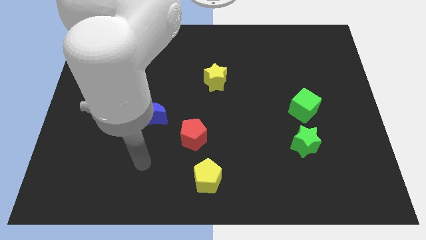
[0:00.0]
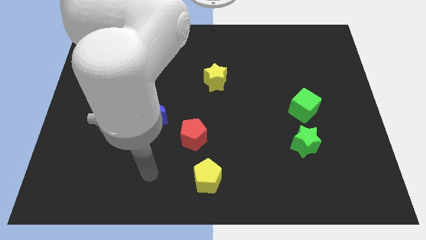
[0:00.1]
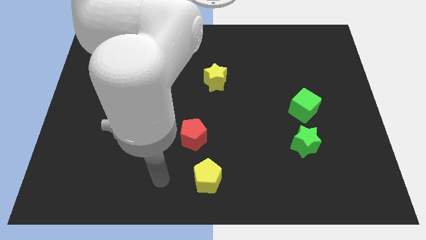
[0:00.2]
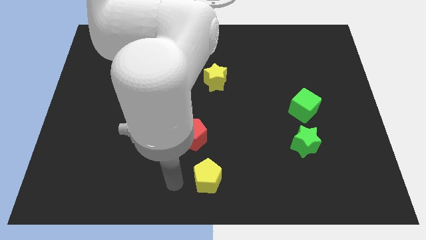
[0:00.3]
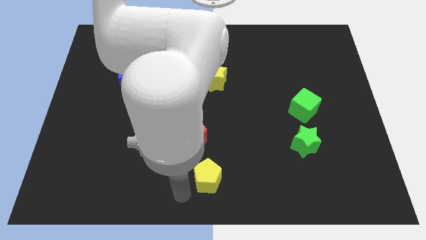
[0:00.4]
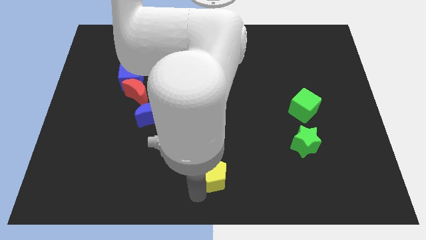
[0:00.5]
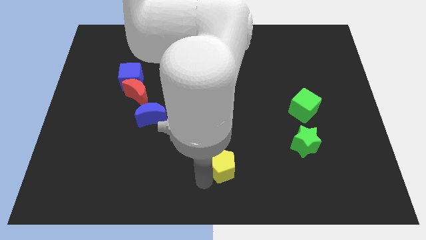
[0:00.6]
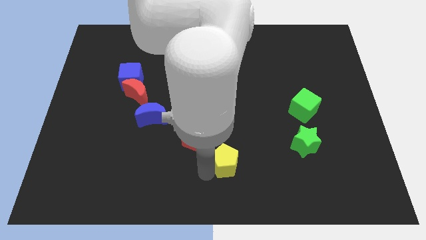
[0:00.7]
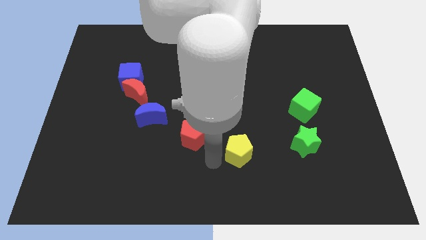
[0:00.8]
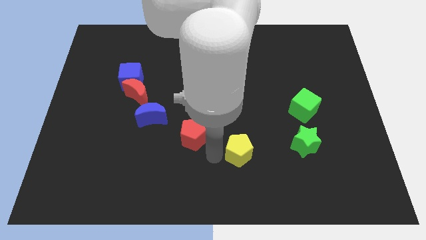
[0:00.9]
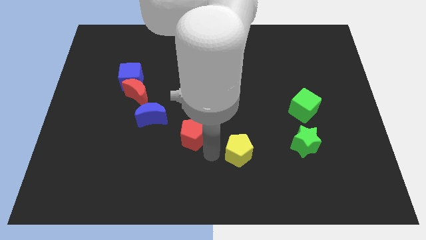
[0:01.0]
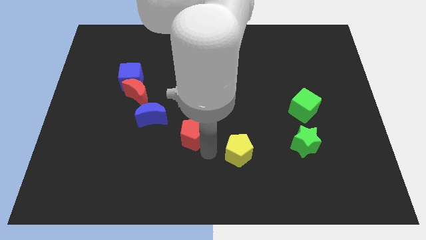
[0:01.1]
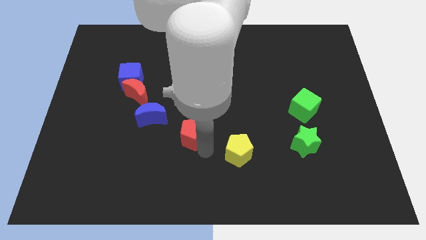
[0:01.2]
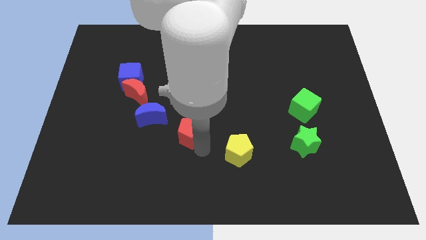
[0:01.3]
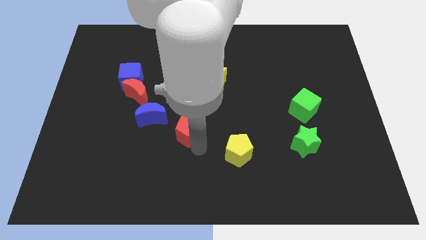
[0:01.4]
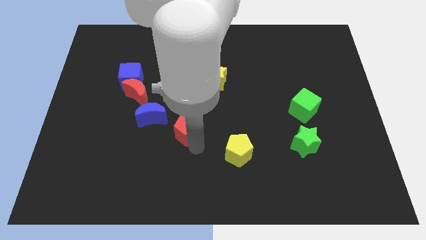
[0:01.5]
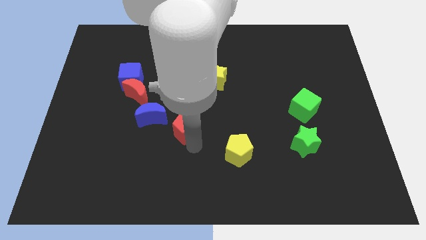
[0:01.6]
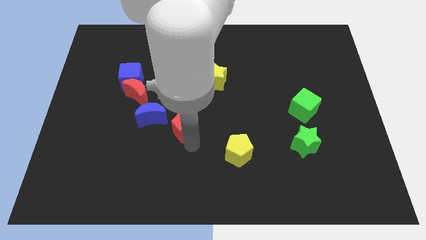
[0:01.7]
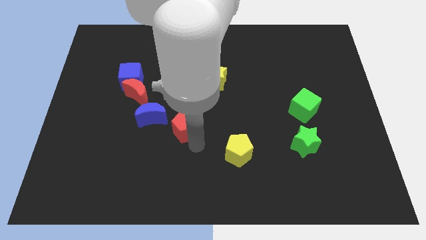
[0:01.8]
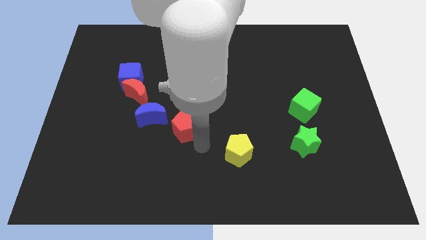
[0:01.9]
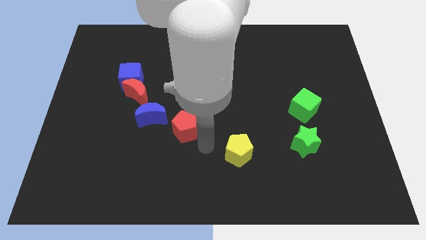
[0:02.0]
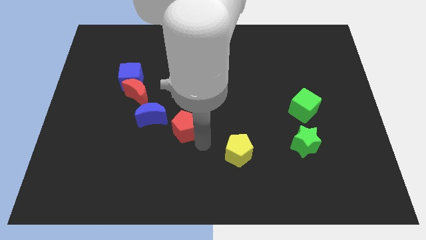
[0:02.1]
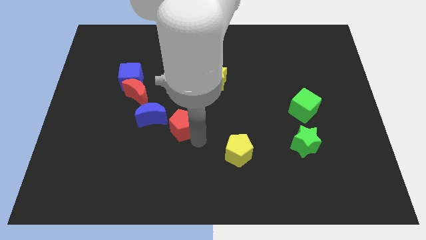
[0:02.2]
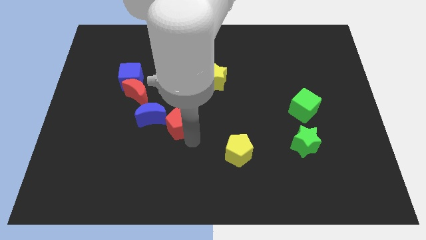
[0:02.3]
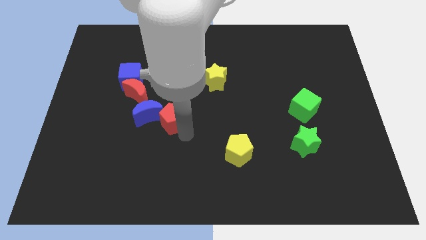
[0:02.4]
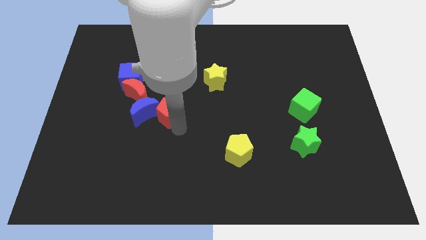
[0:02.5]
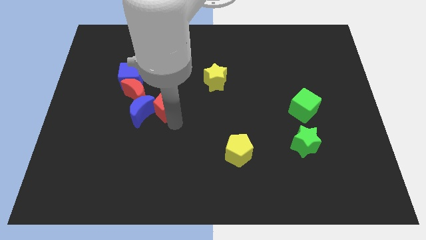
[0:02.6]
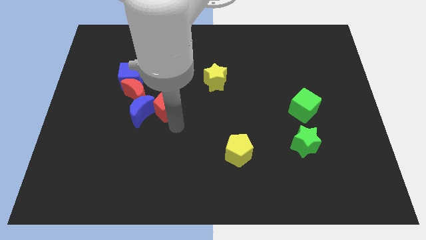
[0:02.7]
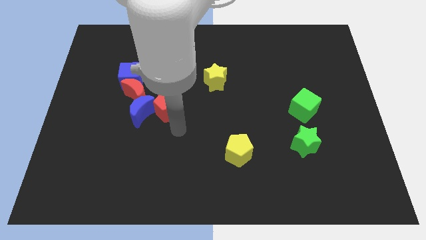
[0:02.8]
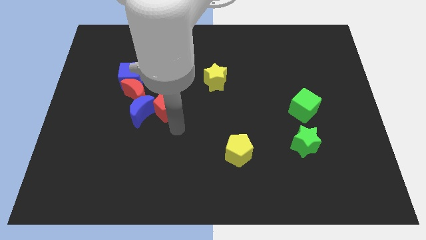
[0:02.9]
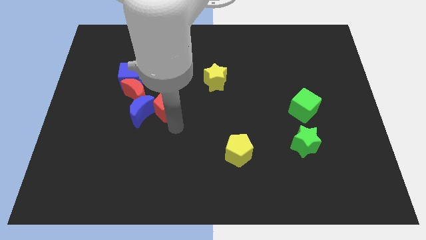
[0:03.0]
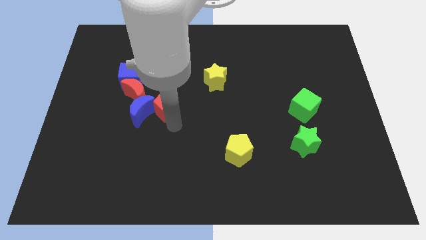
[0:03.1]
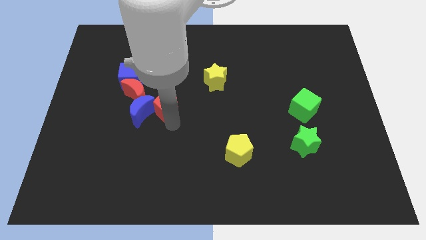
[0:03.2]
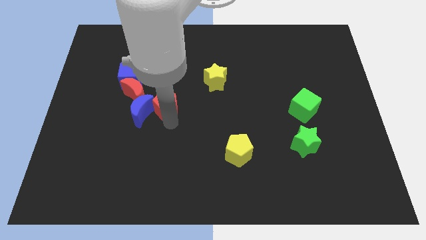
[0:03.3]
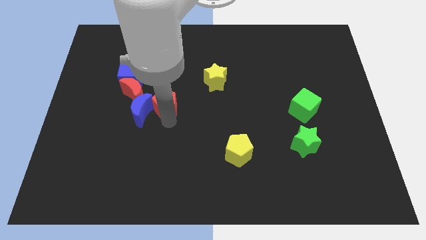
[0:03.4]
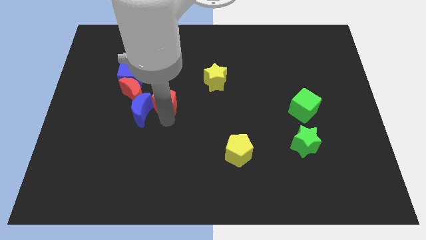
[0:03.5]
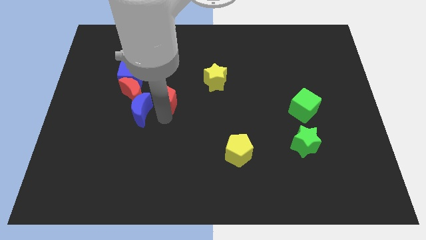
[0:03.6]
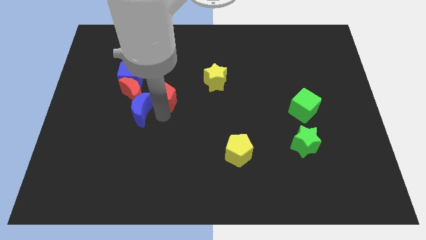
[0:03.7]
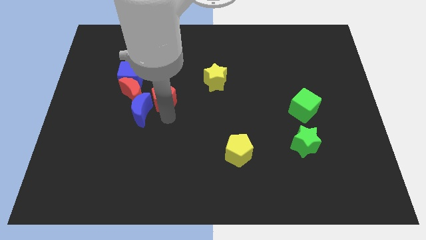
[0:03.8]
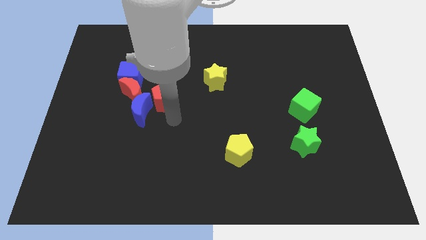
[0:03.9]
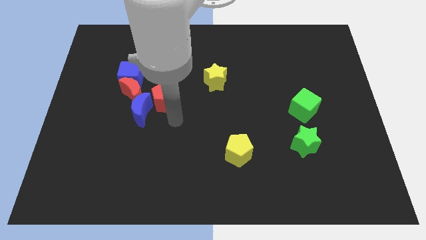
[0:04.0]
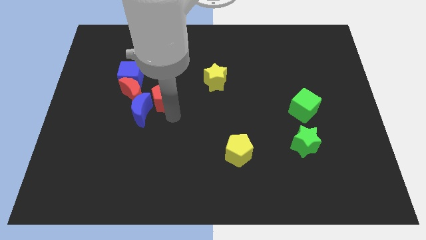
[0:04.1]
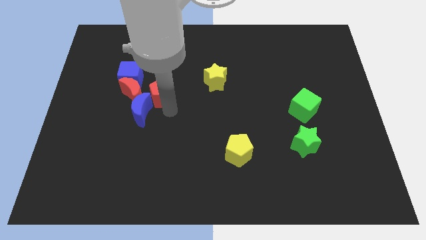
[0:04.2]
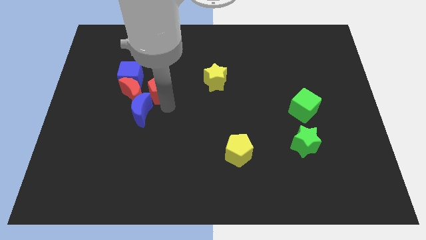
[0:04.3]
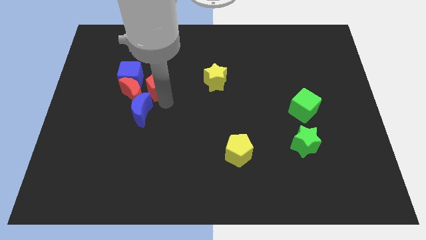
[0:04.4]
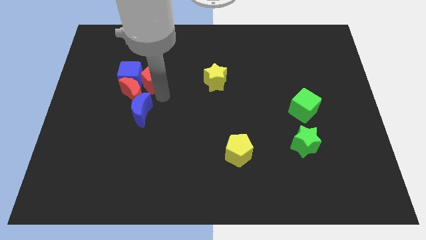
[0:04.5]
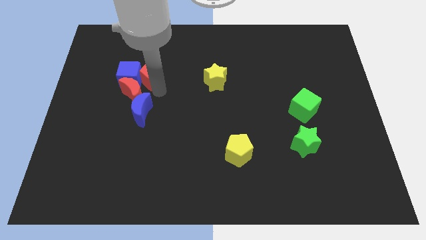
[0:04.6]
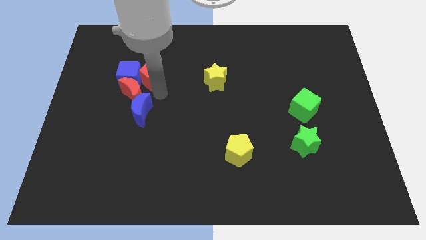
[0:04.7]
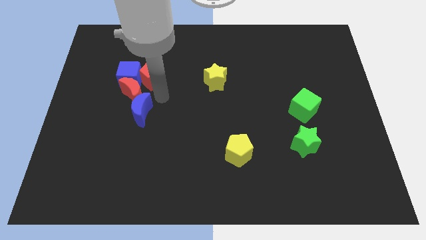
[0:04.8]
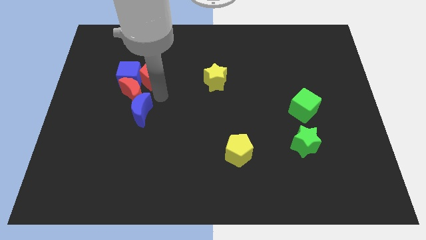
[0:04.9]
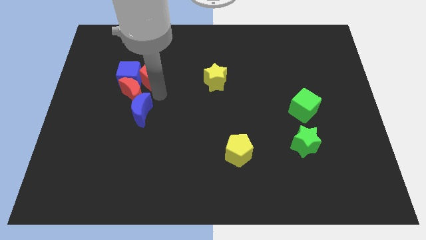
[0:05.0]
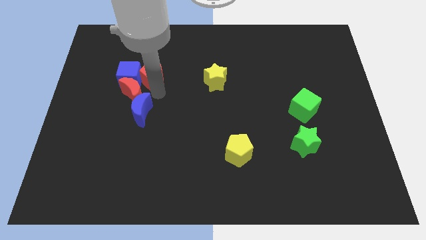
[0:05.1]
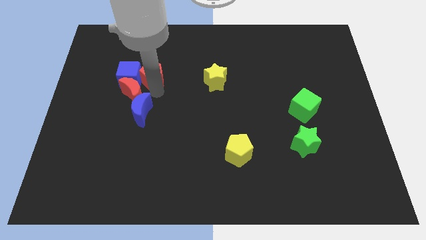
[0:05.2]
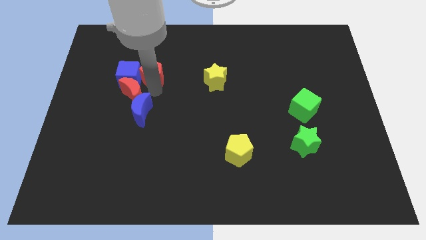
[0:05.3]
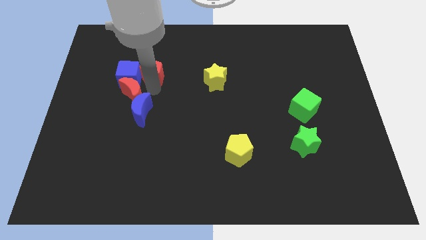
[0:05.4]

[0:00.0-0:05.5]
move the red pentagon diagonally up and left

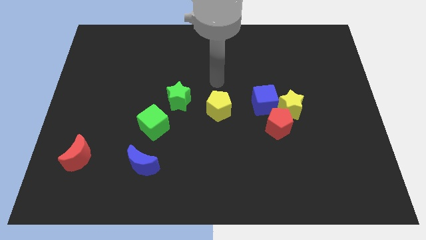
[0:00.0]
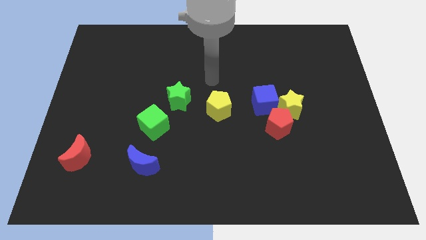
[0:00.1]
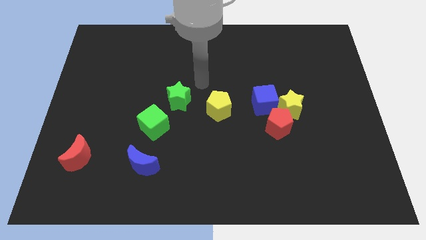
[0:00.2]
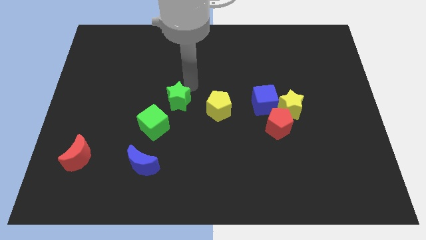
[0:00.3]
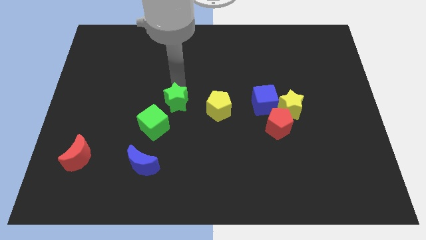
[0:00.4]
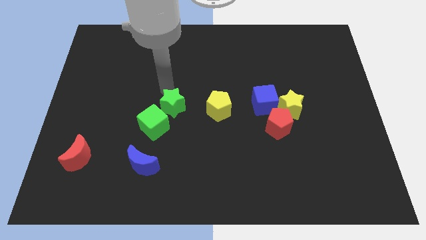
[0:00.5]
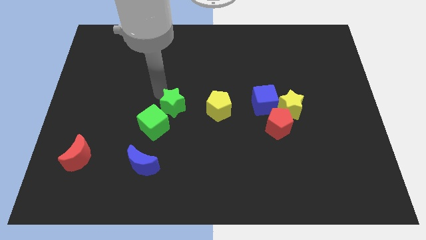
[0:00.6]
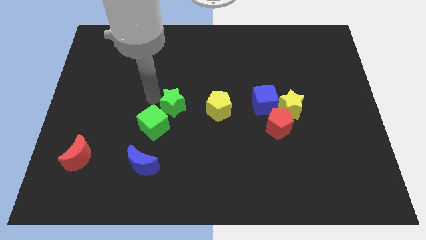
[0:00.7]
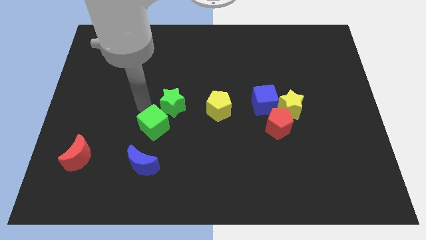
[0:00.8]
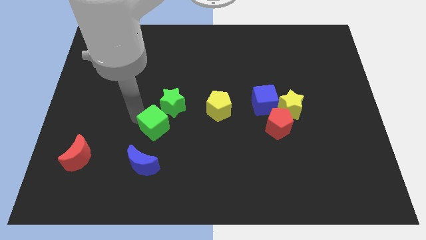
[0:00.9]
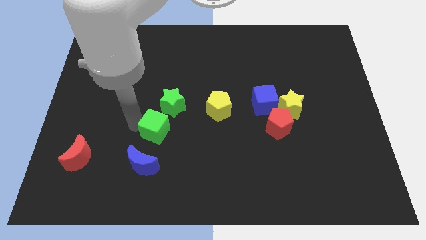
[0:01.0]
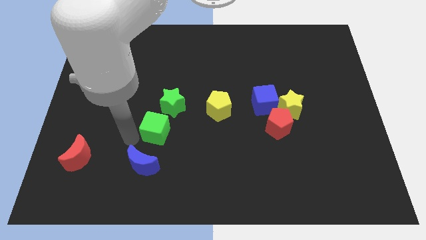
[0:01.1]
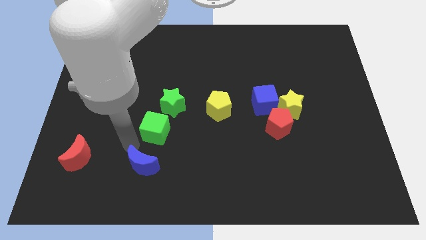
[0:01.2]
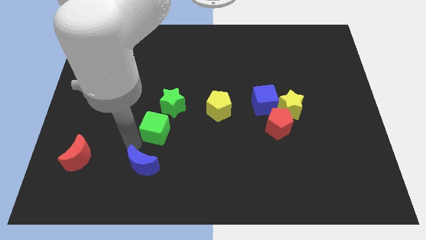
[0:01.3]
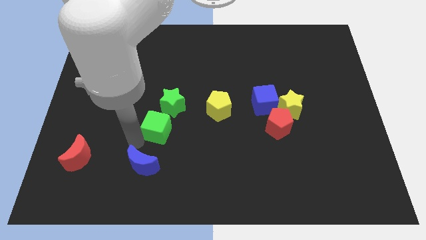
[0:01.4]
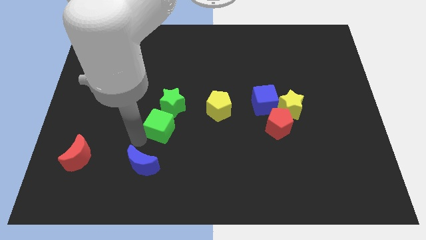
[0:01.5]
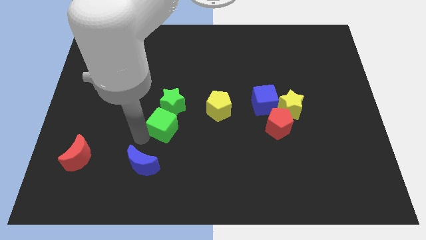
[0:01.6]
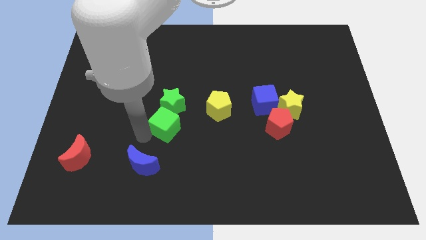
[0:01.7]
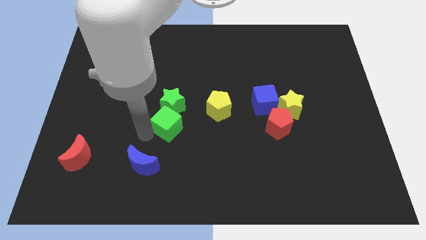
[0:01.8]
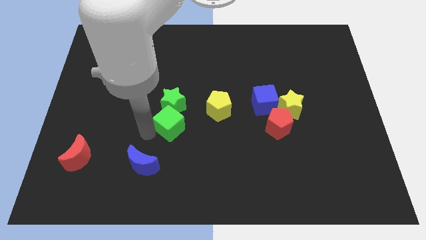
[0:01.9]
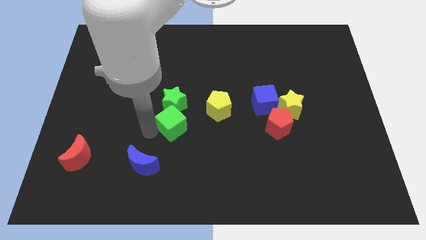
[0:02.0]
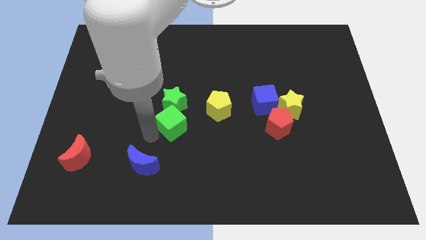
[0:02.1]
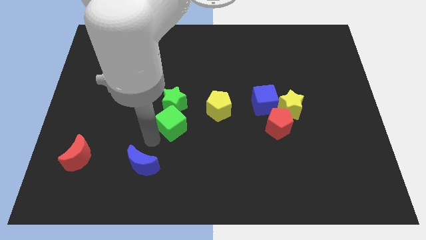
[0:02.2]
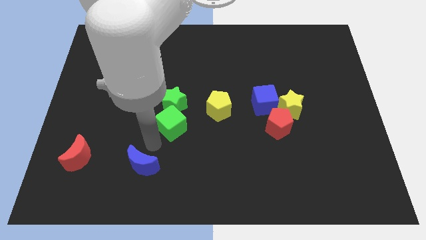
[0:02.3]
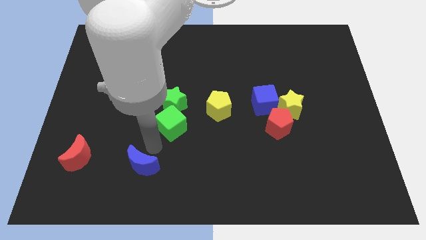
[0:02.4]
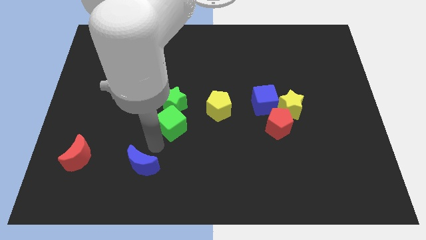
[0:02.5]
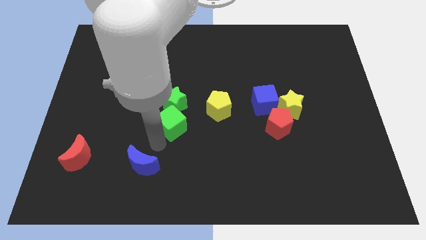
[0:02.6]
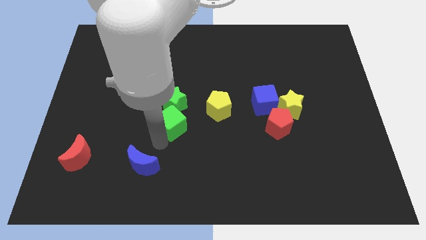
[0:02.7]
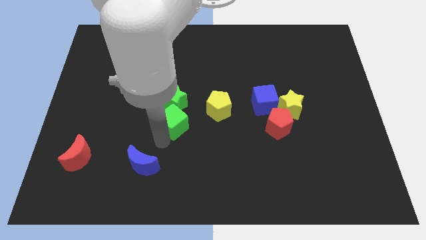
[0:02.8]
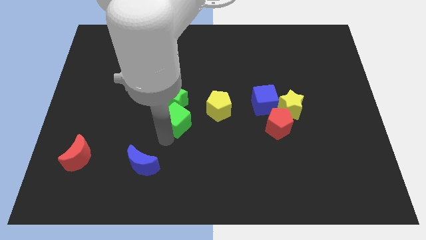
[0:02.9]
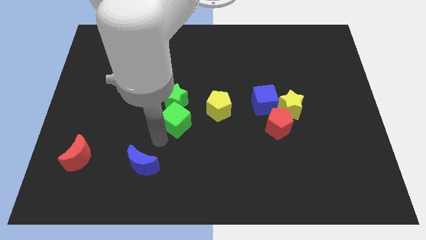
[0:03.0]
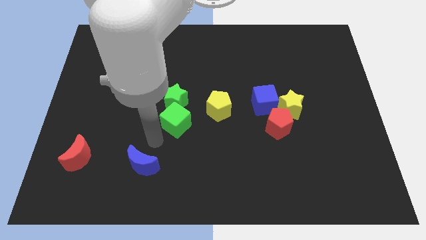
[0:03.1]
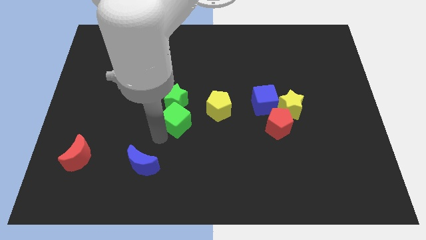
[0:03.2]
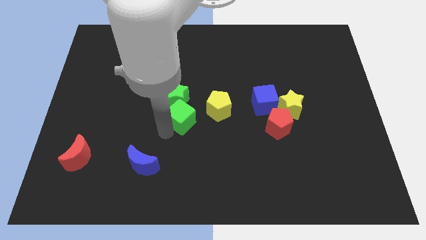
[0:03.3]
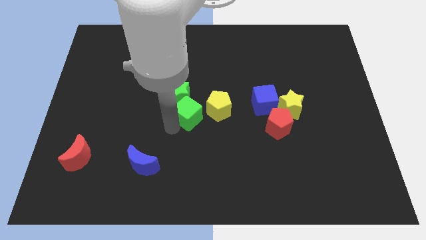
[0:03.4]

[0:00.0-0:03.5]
slide the green cube a little up and right diagonally
